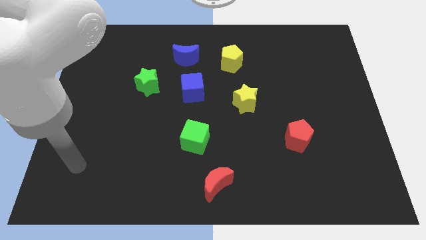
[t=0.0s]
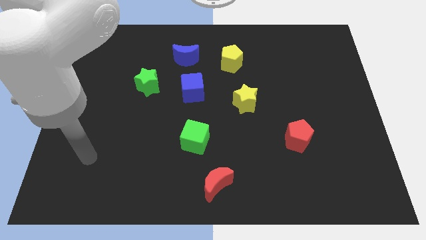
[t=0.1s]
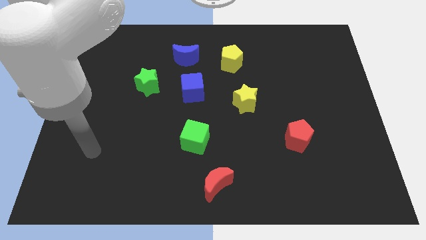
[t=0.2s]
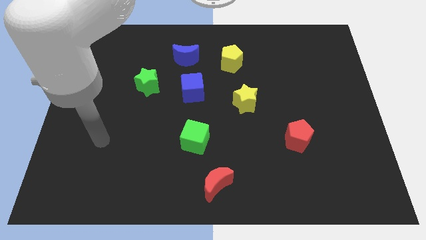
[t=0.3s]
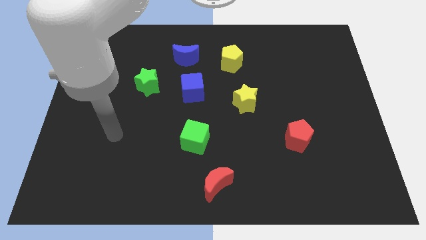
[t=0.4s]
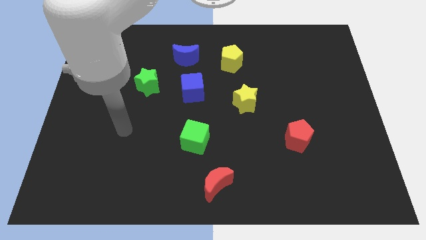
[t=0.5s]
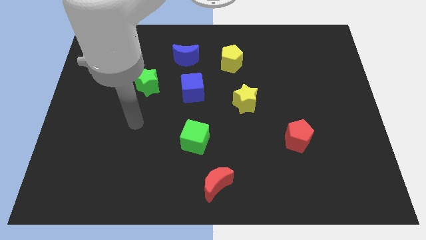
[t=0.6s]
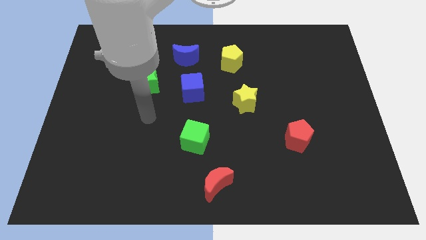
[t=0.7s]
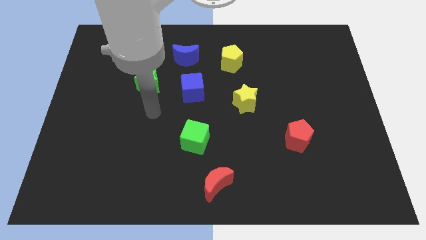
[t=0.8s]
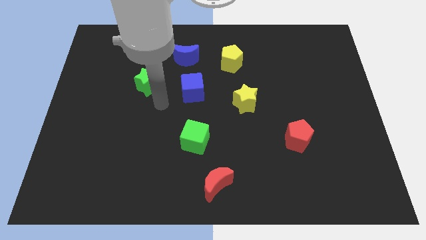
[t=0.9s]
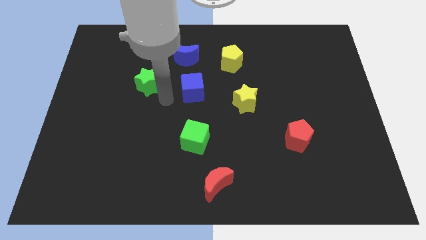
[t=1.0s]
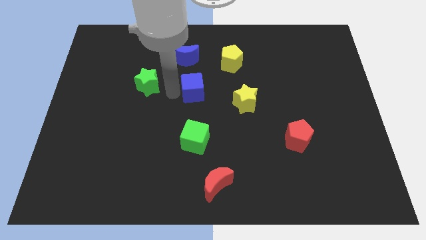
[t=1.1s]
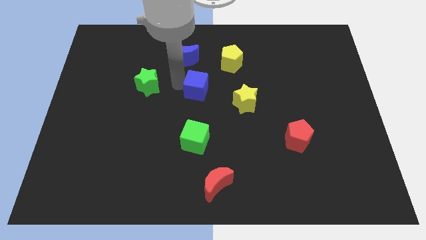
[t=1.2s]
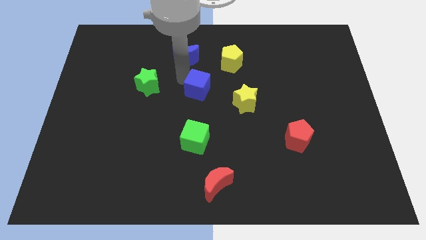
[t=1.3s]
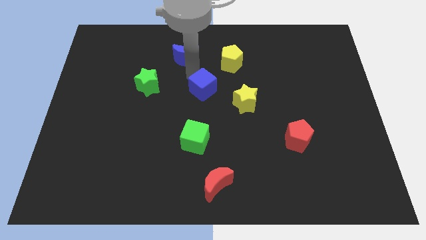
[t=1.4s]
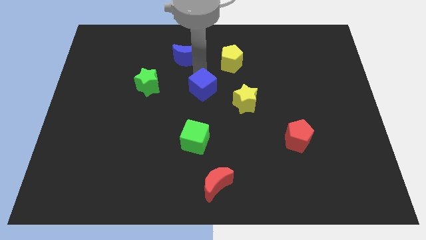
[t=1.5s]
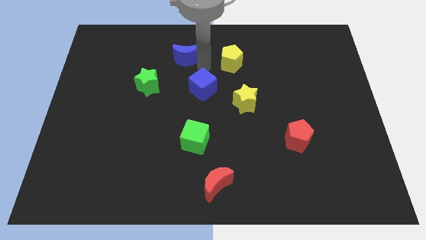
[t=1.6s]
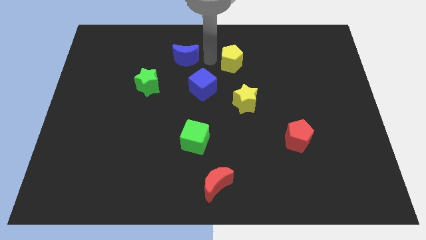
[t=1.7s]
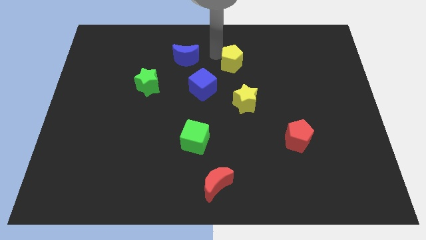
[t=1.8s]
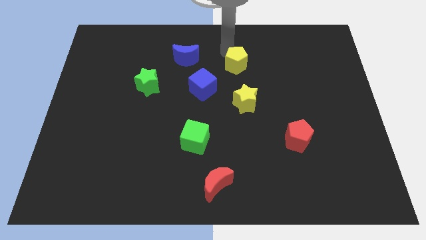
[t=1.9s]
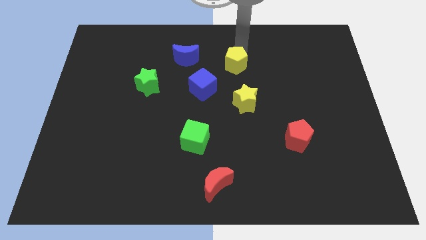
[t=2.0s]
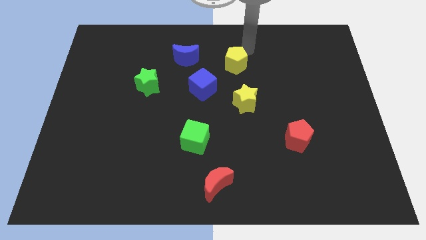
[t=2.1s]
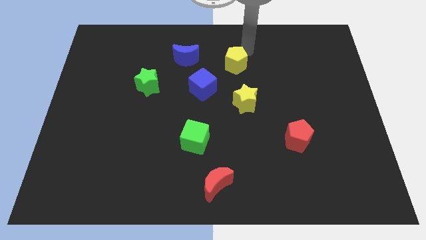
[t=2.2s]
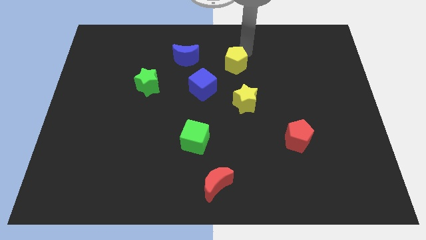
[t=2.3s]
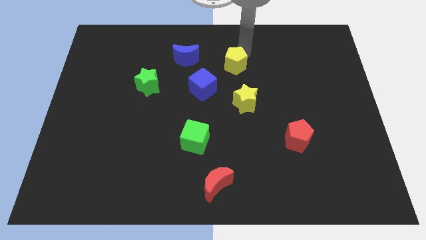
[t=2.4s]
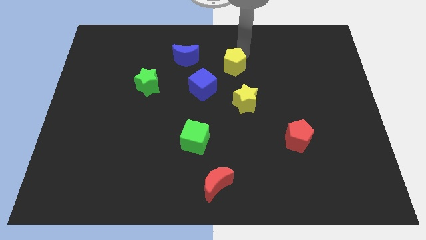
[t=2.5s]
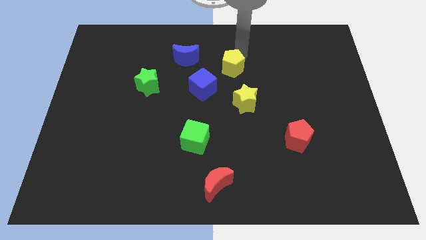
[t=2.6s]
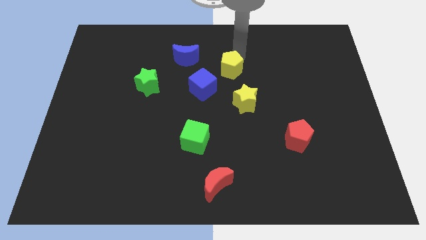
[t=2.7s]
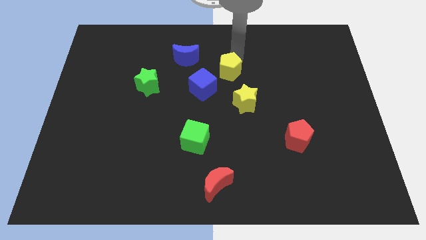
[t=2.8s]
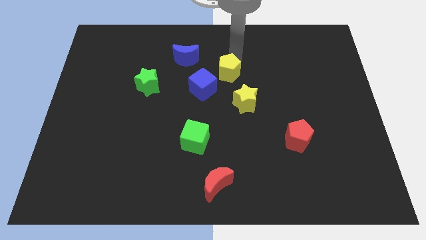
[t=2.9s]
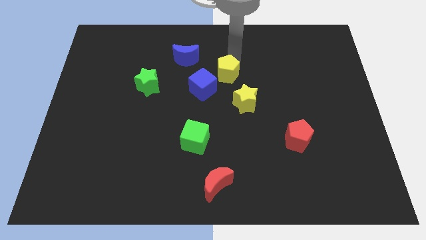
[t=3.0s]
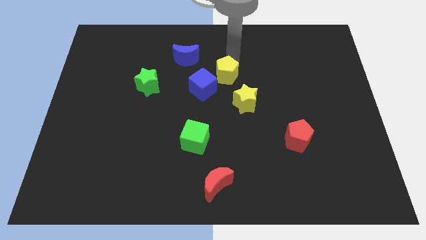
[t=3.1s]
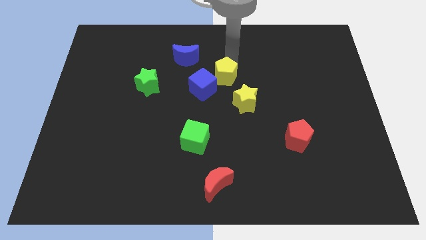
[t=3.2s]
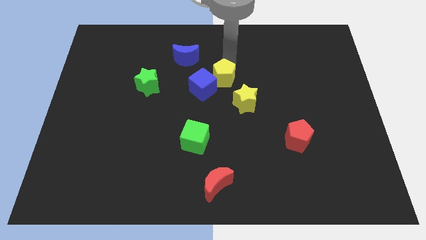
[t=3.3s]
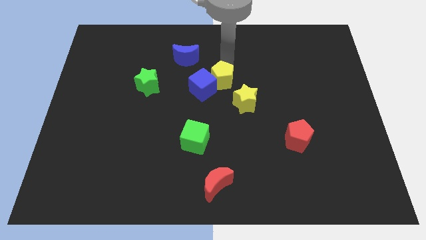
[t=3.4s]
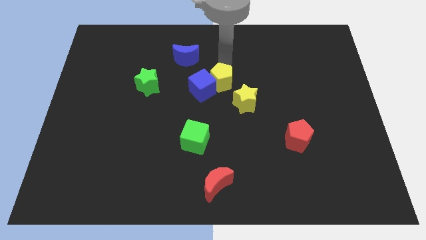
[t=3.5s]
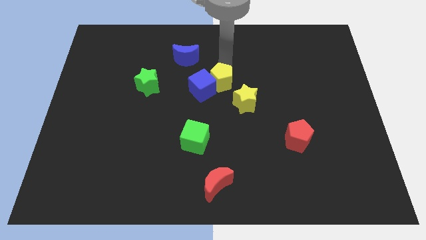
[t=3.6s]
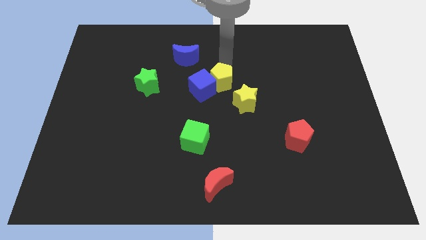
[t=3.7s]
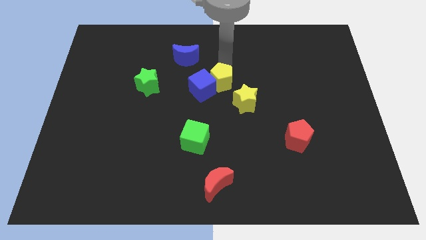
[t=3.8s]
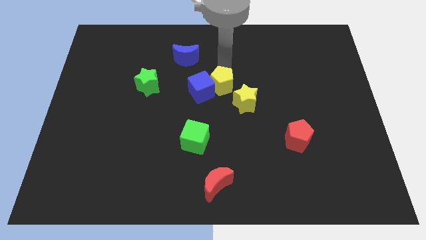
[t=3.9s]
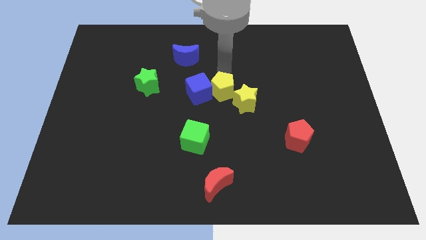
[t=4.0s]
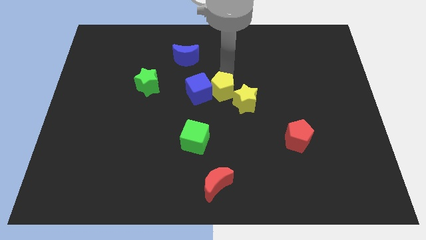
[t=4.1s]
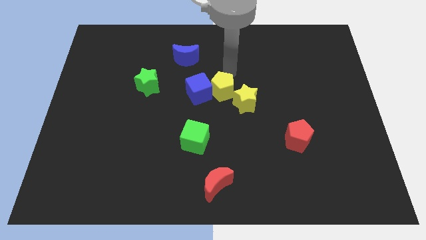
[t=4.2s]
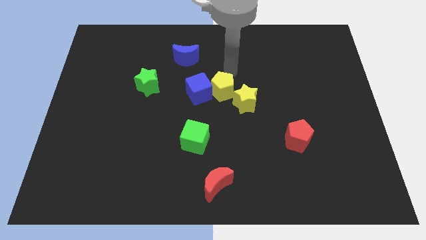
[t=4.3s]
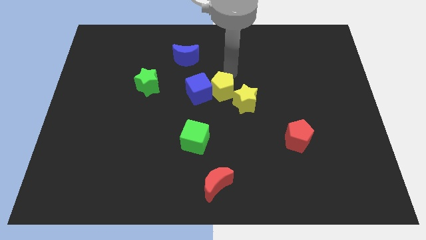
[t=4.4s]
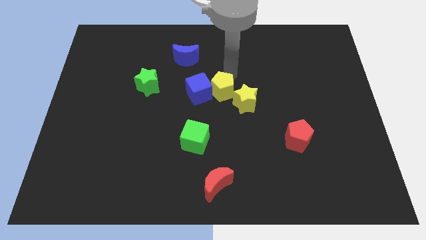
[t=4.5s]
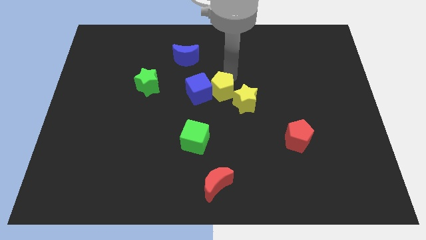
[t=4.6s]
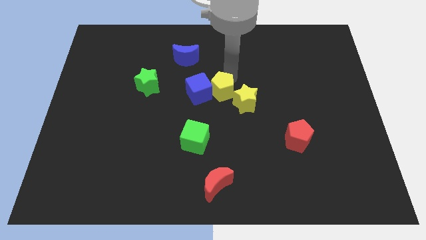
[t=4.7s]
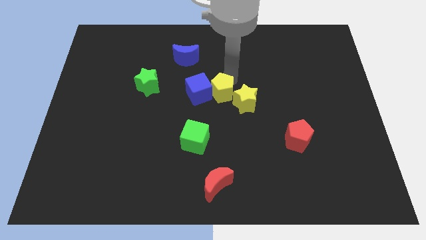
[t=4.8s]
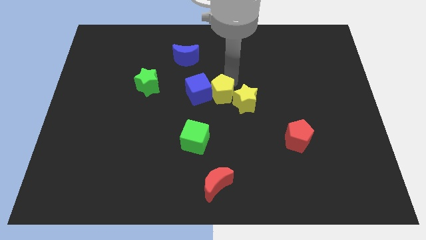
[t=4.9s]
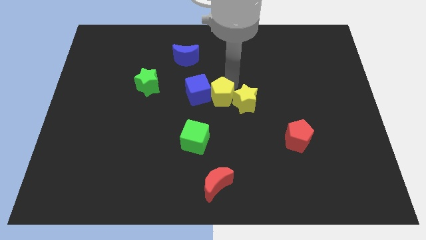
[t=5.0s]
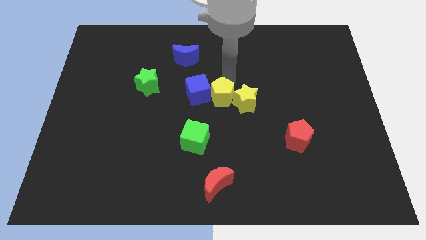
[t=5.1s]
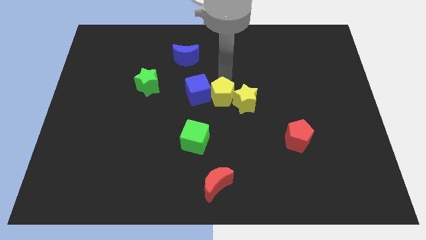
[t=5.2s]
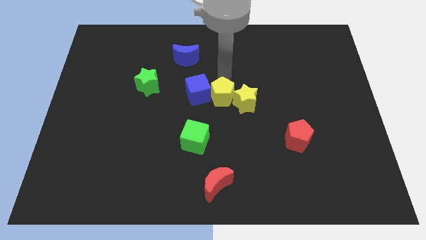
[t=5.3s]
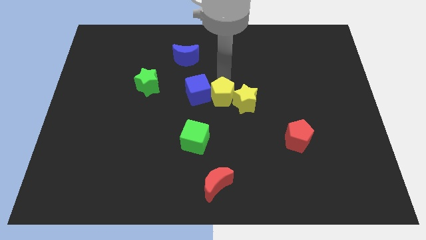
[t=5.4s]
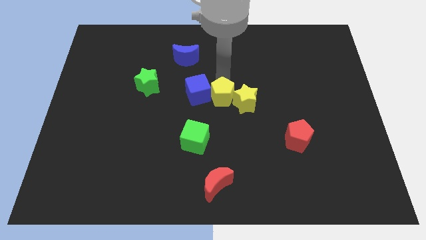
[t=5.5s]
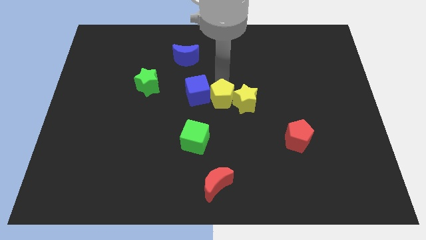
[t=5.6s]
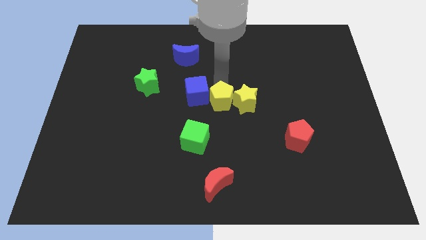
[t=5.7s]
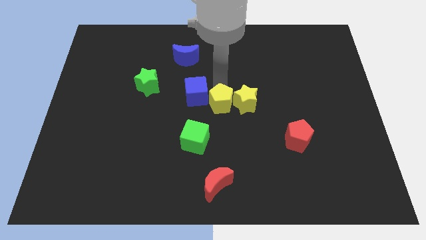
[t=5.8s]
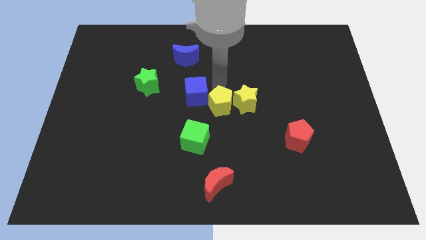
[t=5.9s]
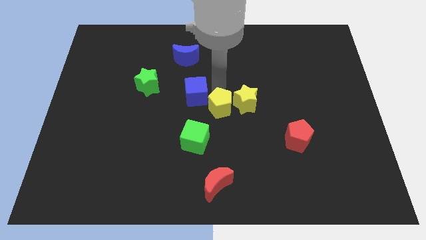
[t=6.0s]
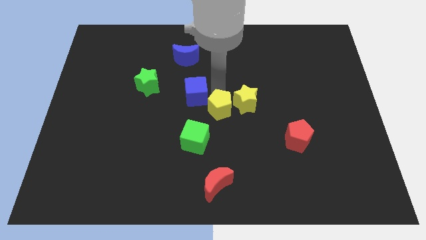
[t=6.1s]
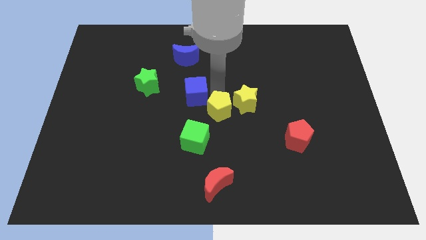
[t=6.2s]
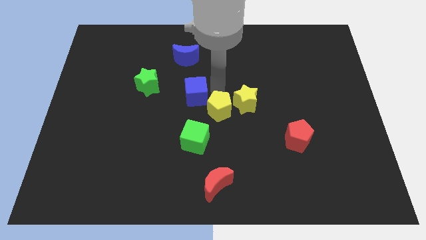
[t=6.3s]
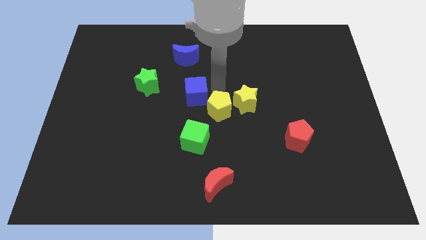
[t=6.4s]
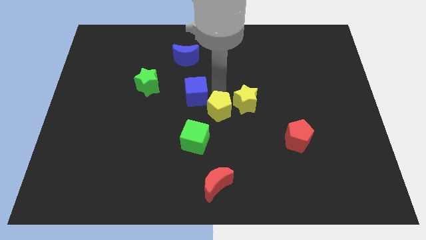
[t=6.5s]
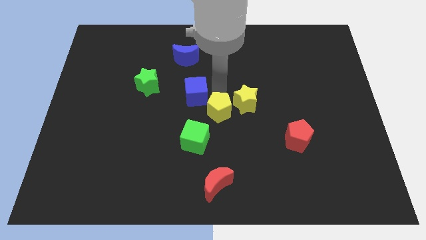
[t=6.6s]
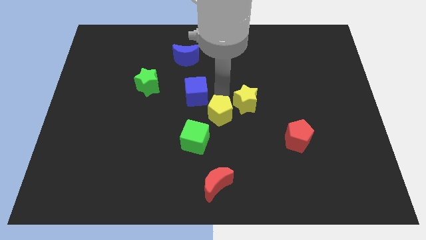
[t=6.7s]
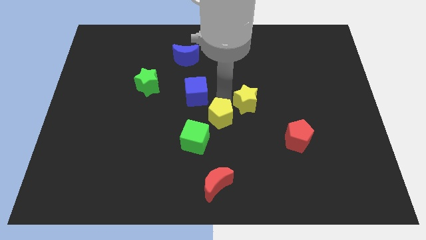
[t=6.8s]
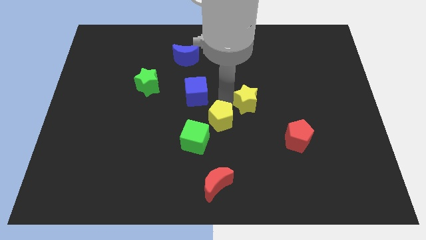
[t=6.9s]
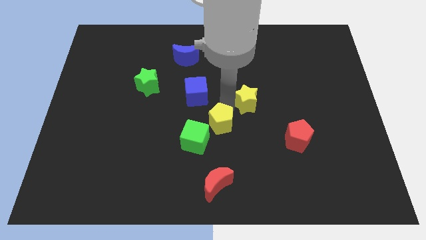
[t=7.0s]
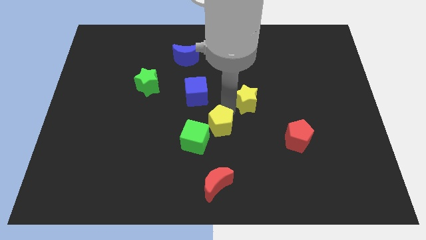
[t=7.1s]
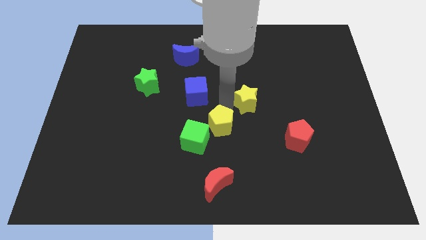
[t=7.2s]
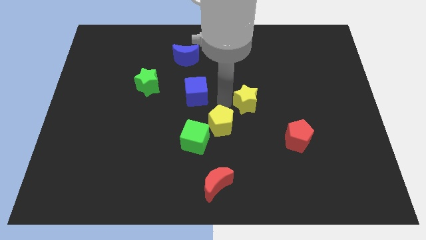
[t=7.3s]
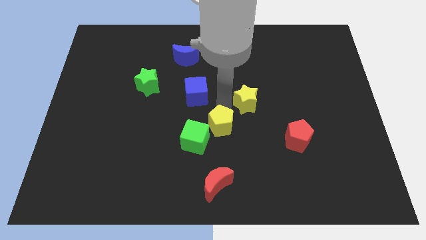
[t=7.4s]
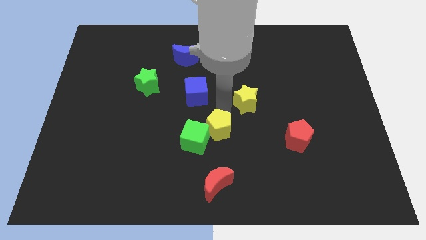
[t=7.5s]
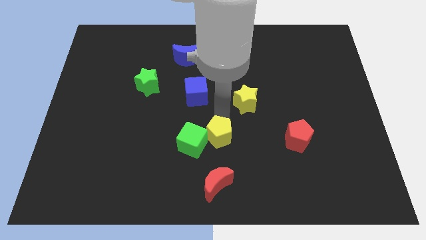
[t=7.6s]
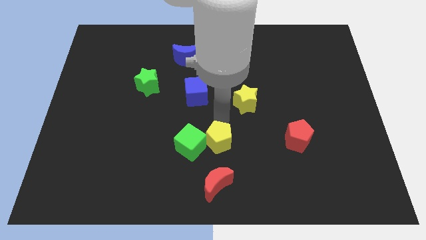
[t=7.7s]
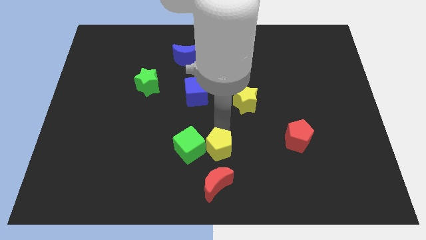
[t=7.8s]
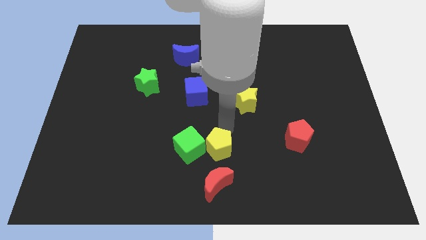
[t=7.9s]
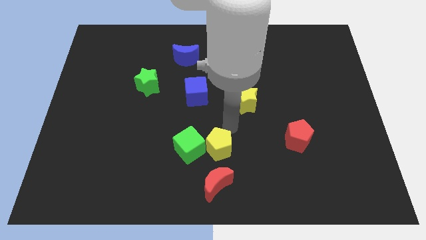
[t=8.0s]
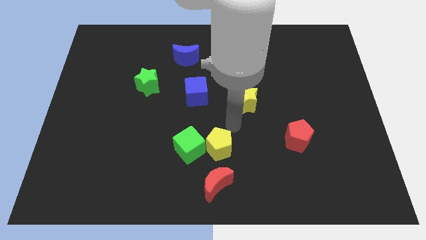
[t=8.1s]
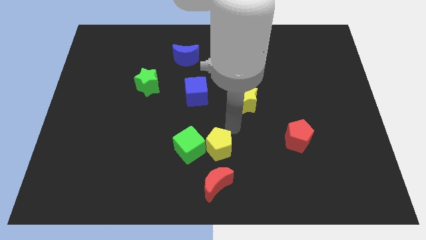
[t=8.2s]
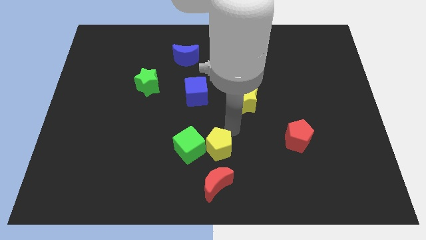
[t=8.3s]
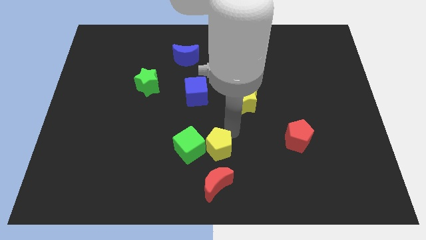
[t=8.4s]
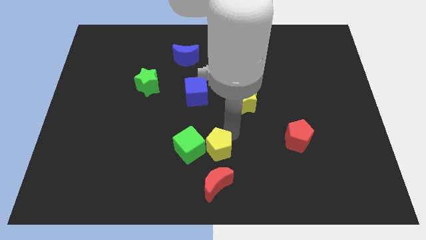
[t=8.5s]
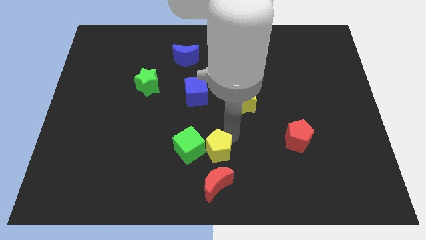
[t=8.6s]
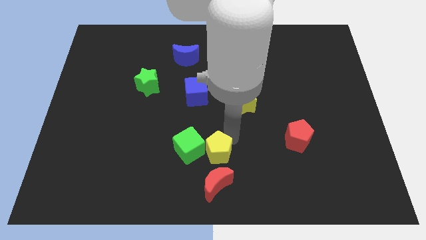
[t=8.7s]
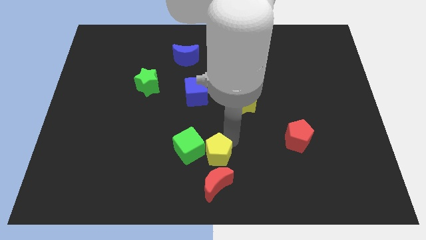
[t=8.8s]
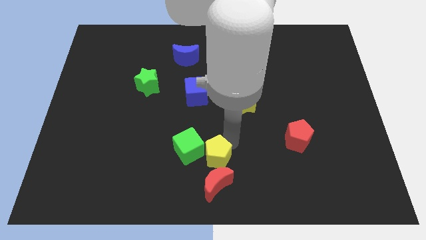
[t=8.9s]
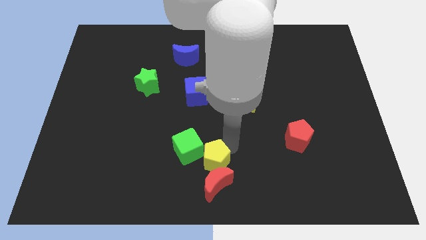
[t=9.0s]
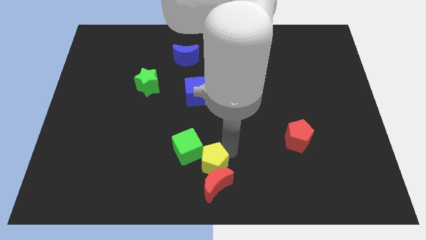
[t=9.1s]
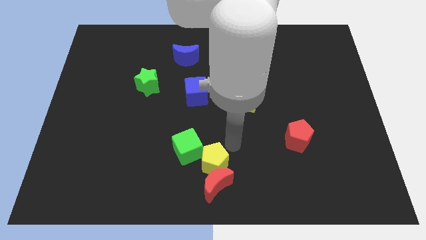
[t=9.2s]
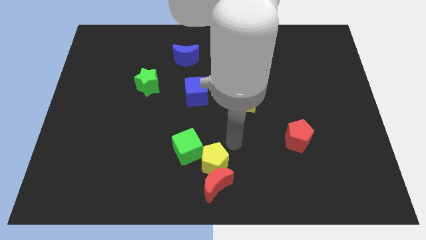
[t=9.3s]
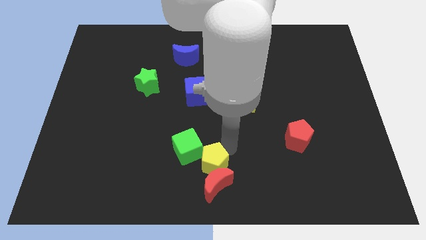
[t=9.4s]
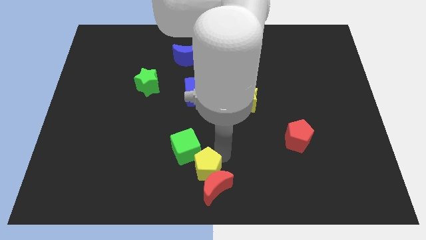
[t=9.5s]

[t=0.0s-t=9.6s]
slide the yellow pentagon to the bottom side of the green cube
